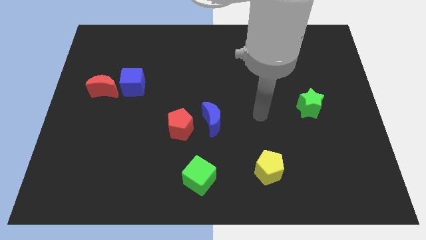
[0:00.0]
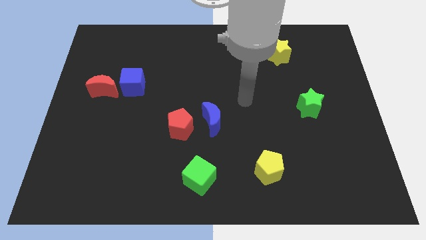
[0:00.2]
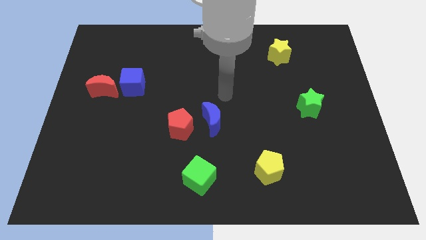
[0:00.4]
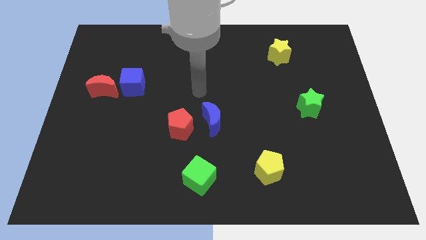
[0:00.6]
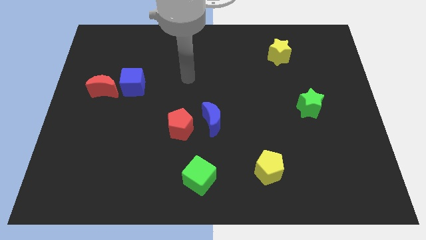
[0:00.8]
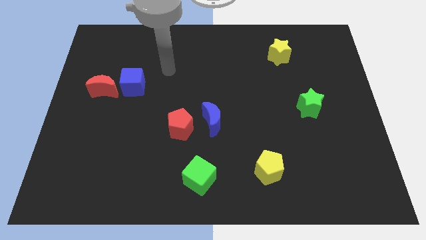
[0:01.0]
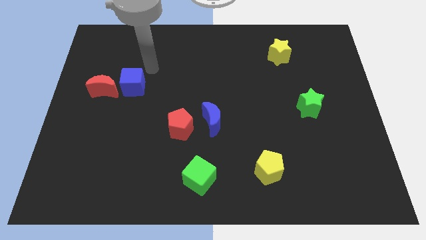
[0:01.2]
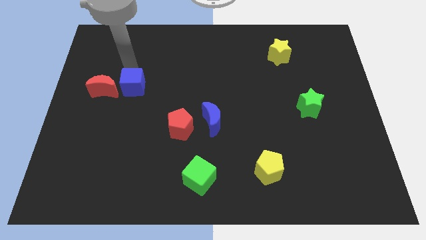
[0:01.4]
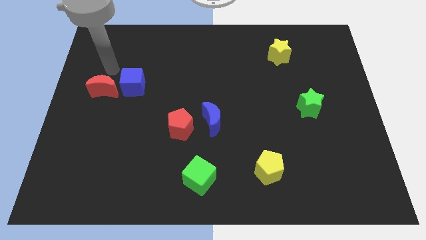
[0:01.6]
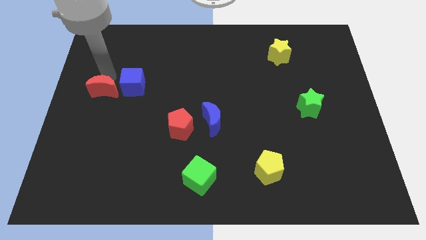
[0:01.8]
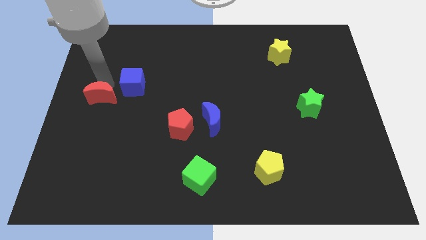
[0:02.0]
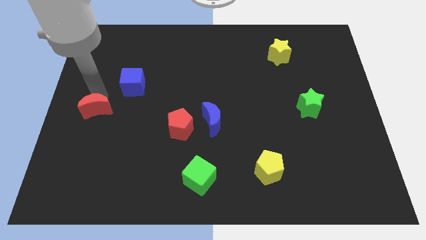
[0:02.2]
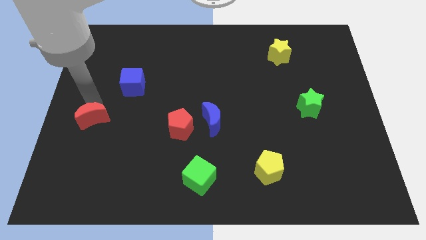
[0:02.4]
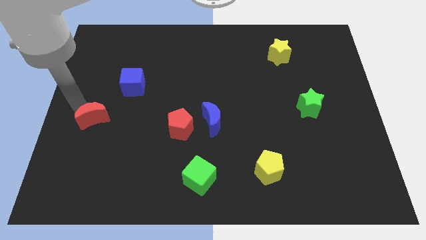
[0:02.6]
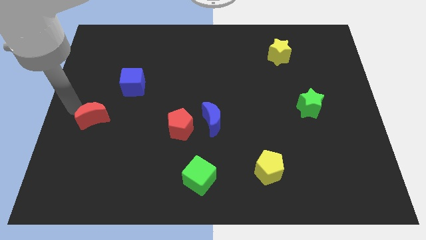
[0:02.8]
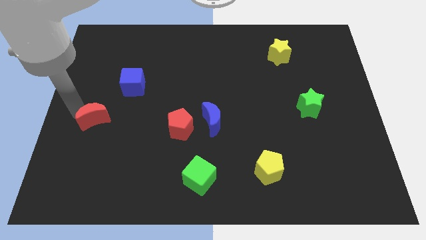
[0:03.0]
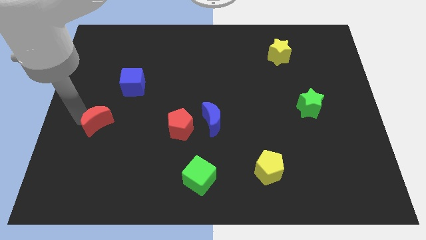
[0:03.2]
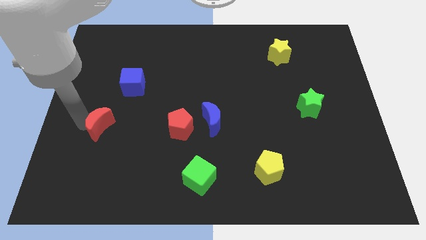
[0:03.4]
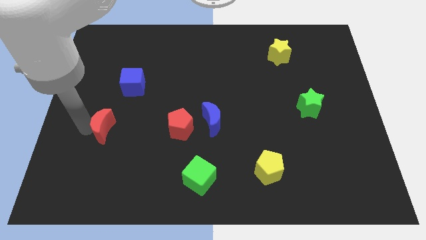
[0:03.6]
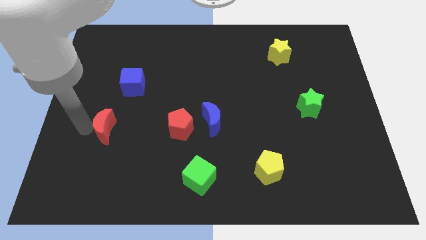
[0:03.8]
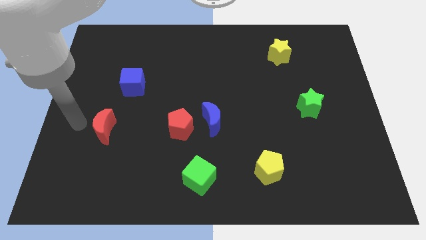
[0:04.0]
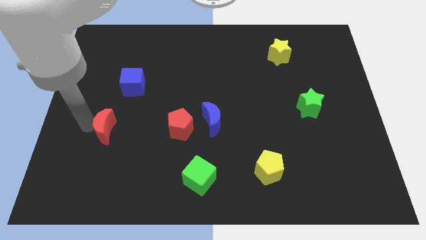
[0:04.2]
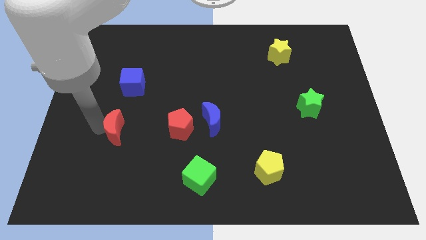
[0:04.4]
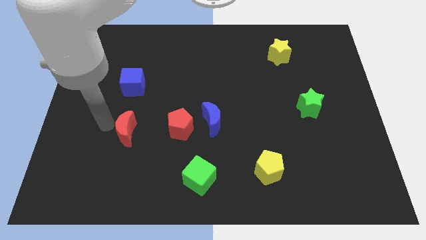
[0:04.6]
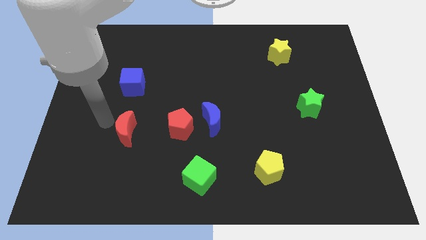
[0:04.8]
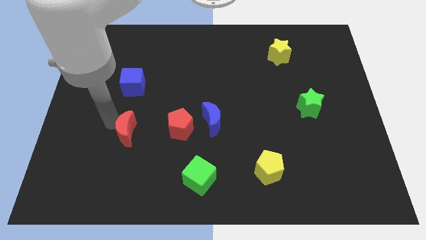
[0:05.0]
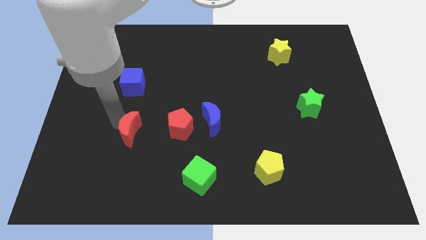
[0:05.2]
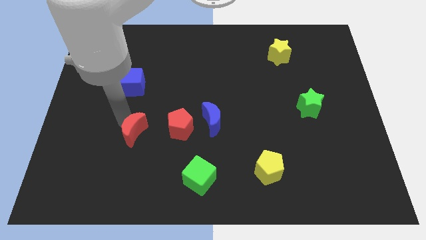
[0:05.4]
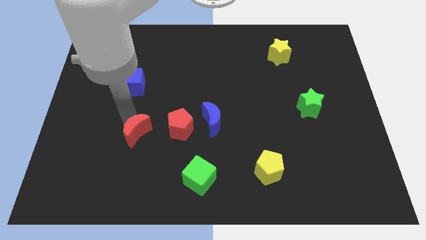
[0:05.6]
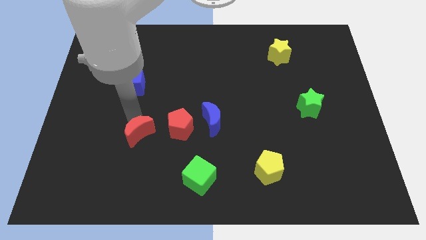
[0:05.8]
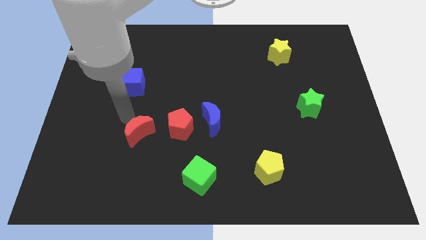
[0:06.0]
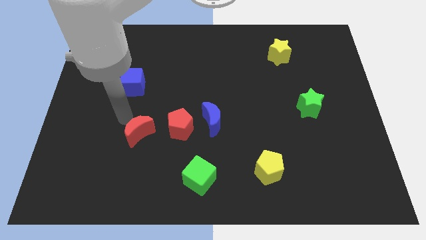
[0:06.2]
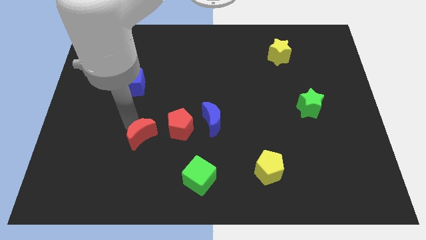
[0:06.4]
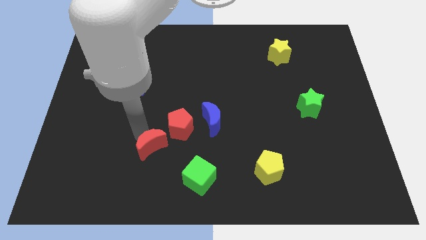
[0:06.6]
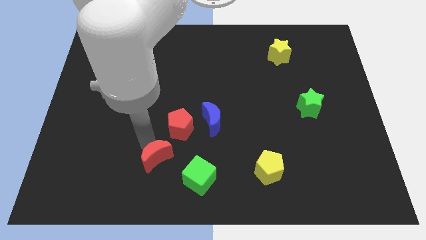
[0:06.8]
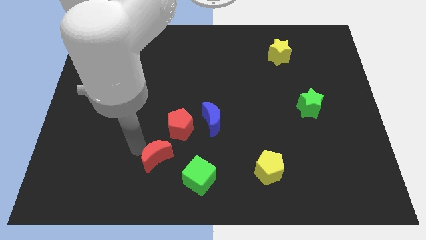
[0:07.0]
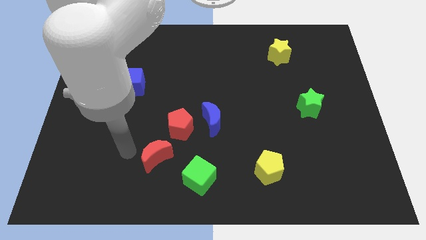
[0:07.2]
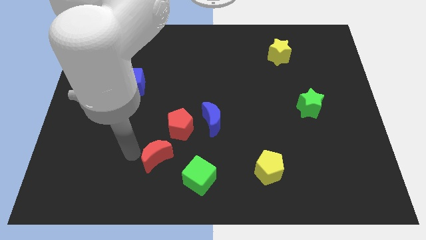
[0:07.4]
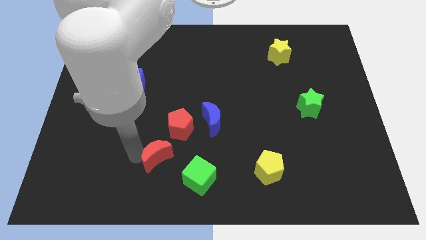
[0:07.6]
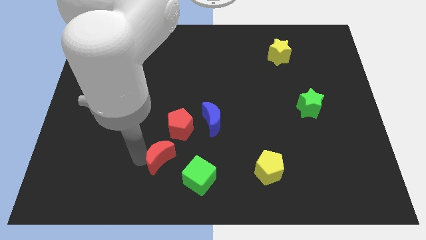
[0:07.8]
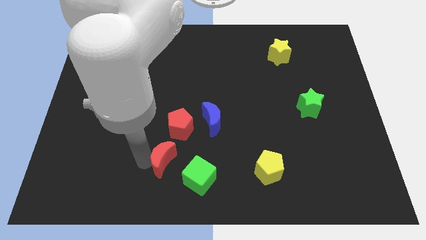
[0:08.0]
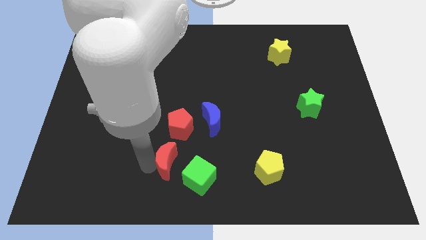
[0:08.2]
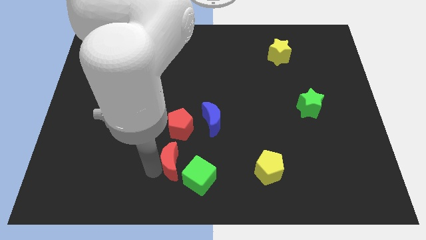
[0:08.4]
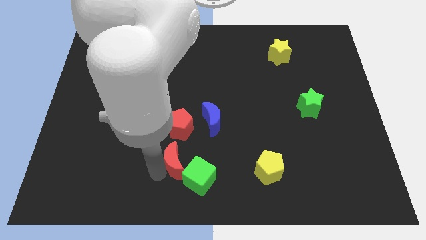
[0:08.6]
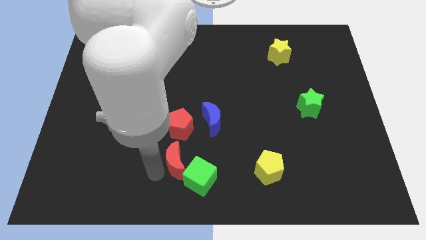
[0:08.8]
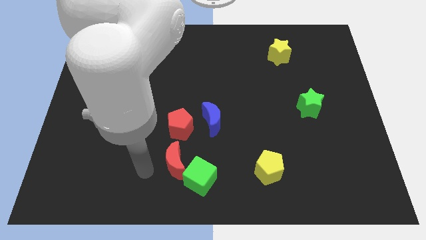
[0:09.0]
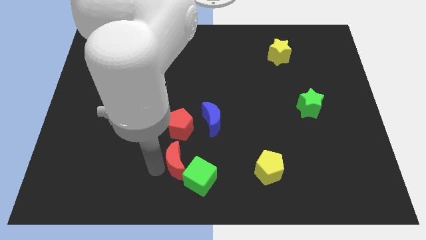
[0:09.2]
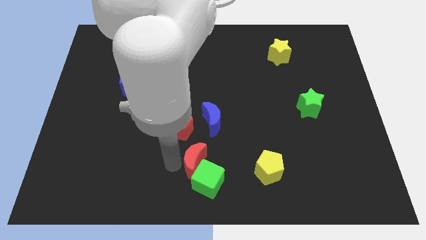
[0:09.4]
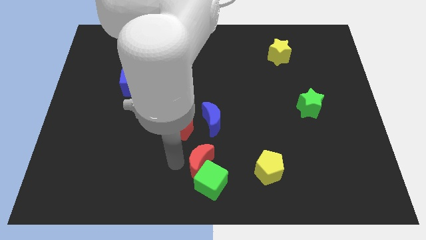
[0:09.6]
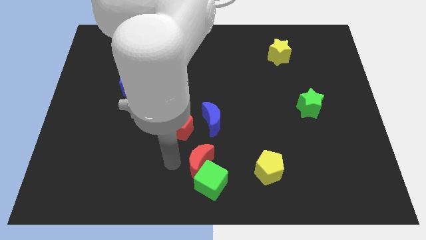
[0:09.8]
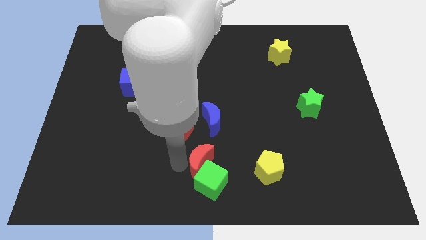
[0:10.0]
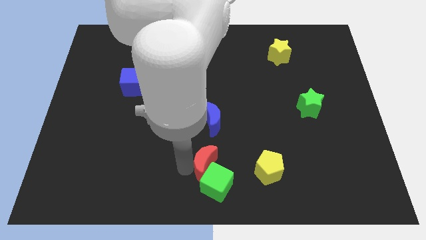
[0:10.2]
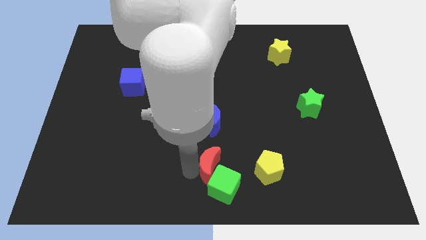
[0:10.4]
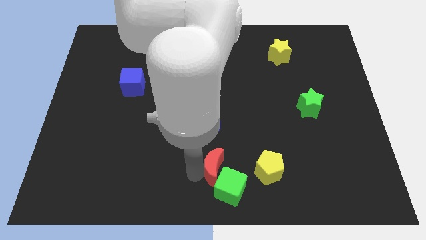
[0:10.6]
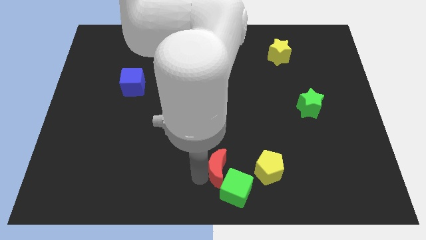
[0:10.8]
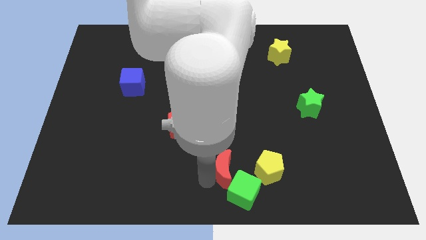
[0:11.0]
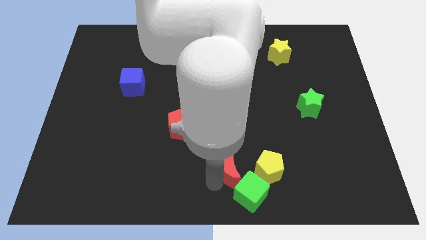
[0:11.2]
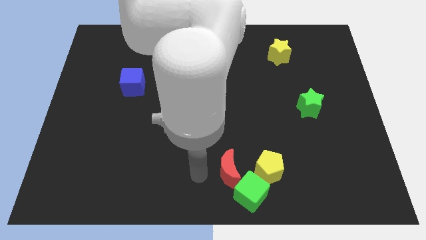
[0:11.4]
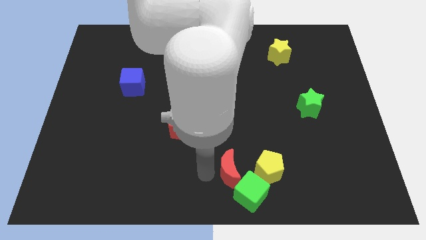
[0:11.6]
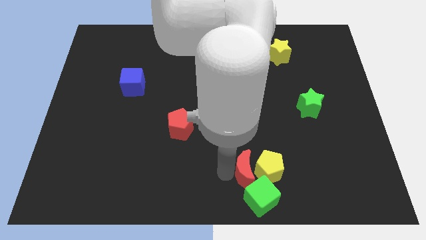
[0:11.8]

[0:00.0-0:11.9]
put the red moon towards the yellow pentagon

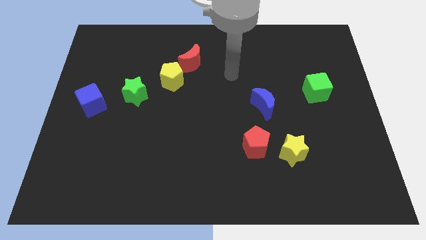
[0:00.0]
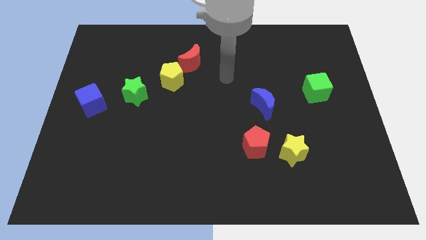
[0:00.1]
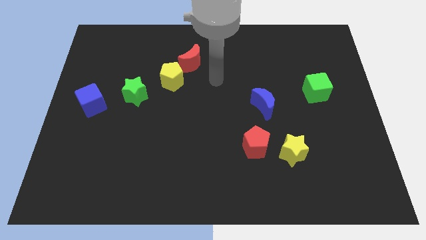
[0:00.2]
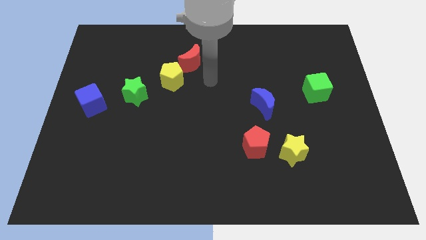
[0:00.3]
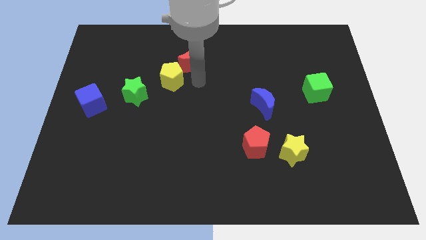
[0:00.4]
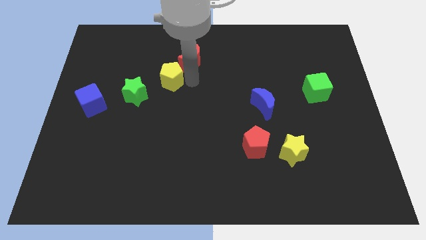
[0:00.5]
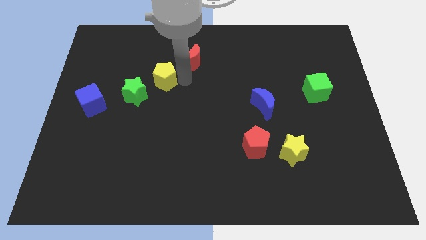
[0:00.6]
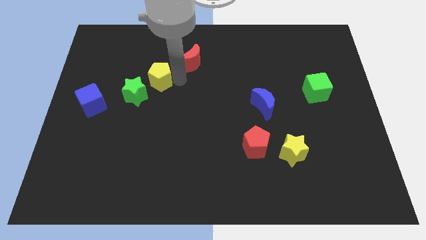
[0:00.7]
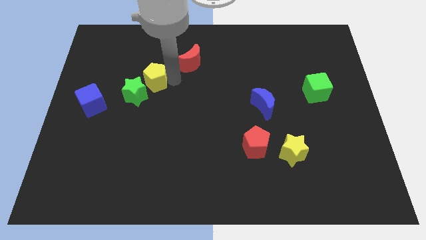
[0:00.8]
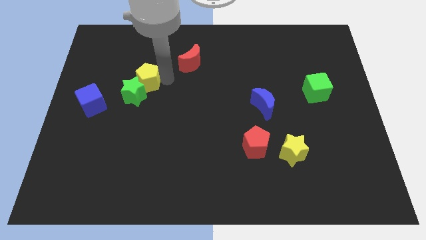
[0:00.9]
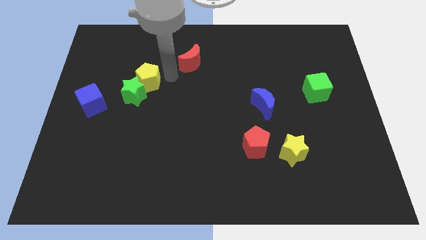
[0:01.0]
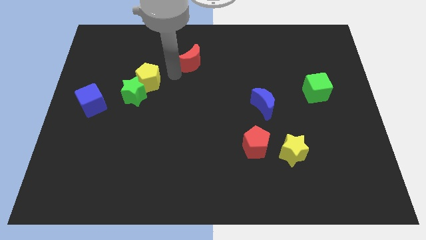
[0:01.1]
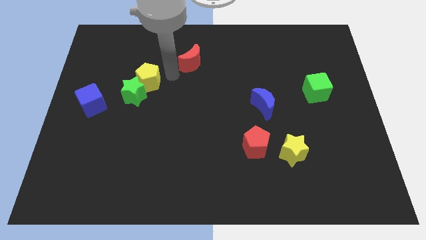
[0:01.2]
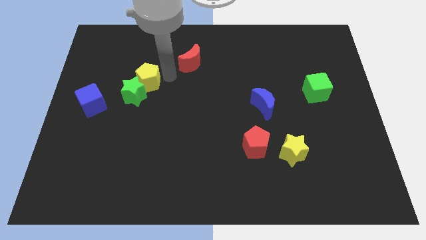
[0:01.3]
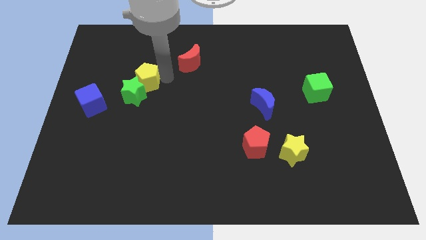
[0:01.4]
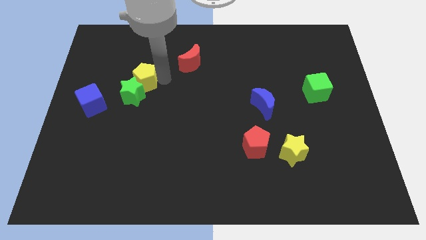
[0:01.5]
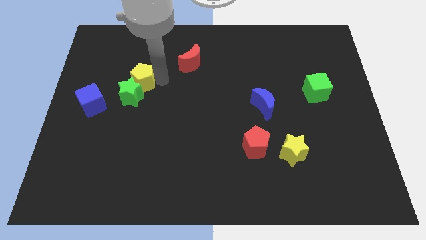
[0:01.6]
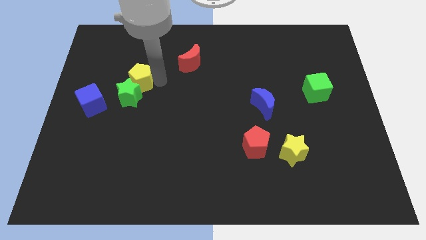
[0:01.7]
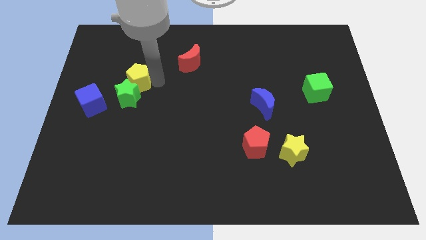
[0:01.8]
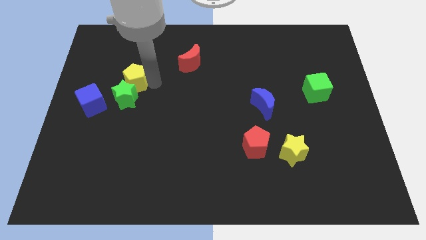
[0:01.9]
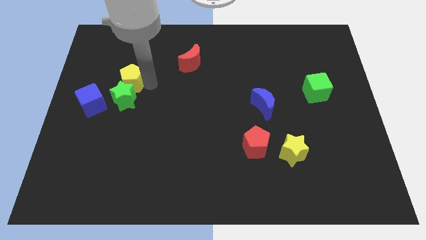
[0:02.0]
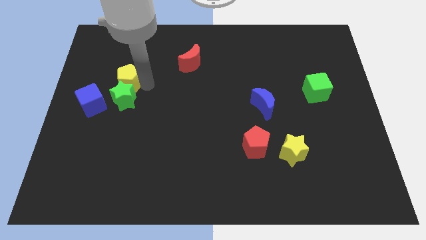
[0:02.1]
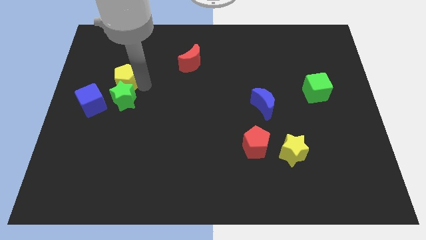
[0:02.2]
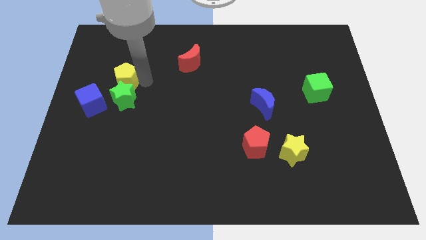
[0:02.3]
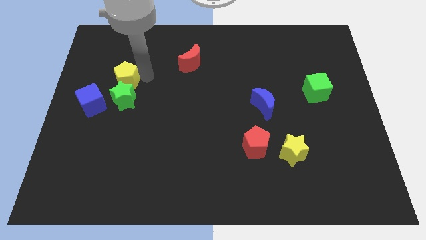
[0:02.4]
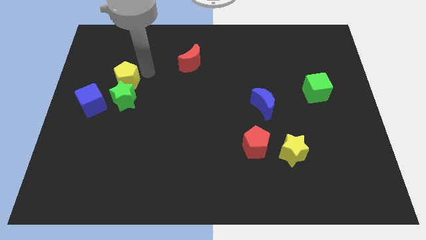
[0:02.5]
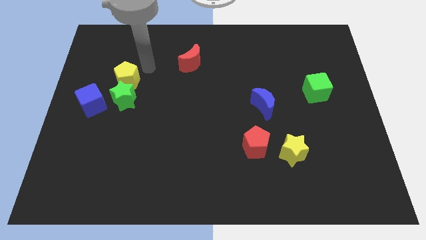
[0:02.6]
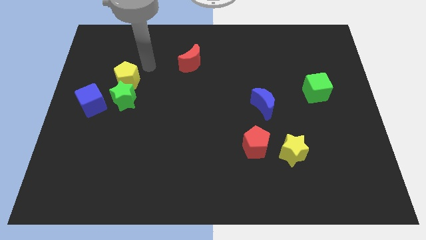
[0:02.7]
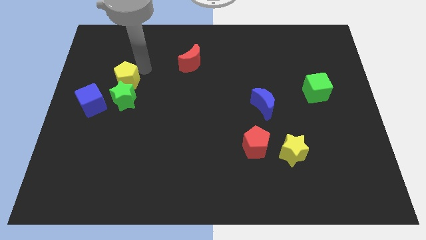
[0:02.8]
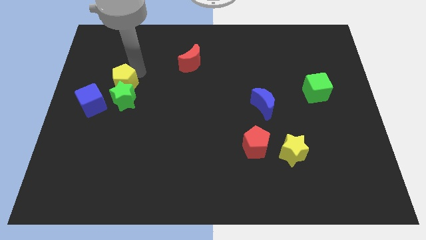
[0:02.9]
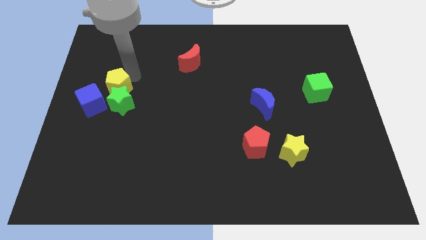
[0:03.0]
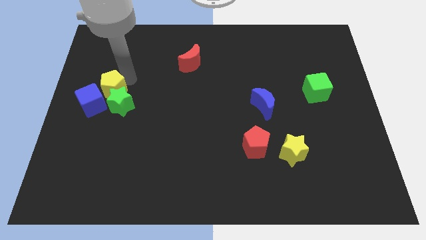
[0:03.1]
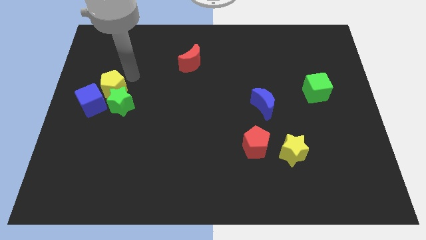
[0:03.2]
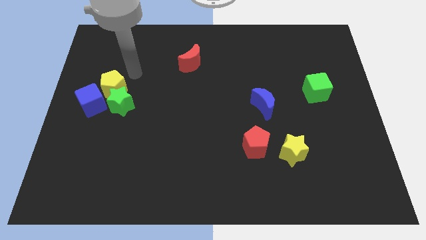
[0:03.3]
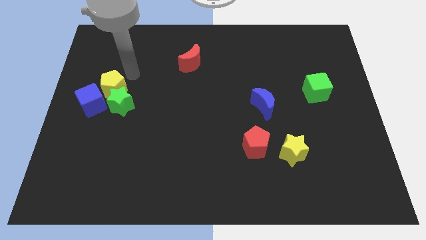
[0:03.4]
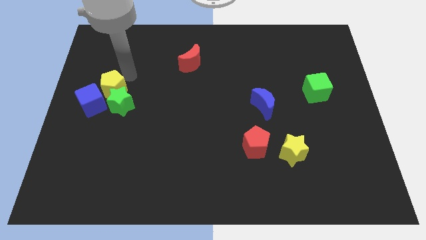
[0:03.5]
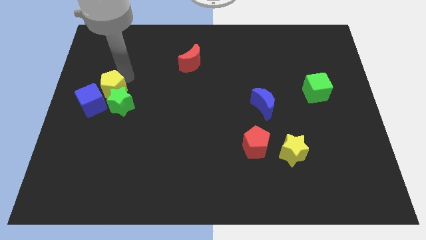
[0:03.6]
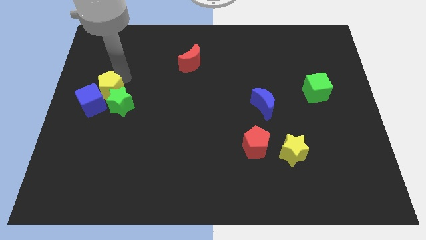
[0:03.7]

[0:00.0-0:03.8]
slide the yellow pentagon close to the blue cube
